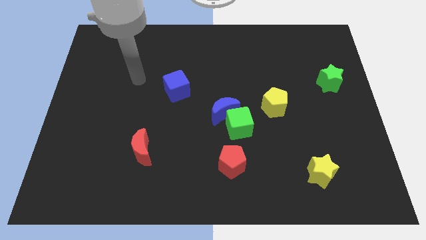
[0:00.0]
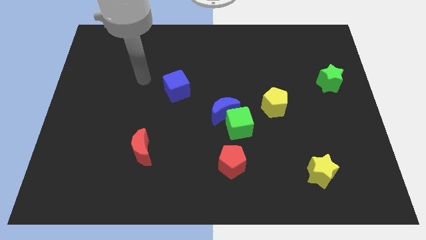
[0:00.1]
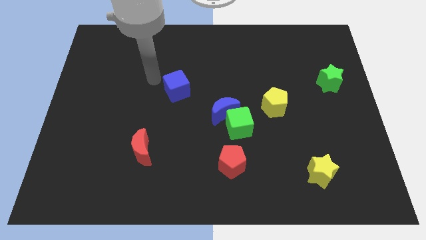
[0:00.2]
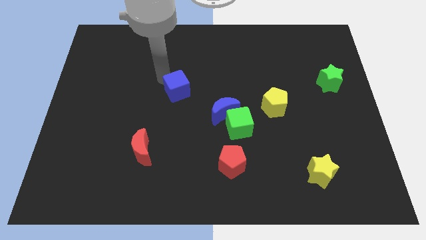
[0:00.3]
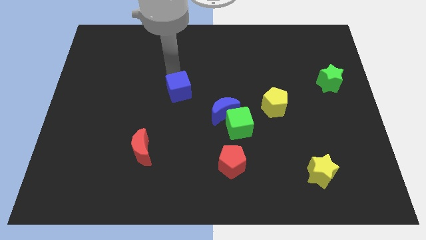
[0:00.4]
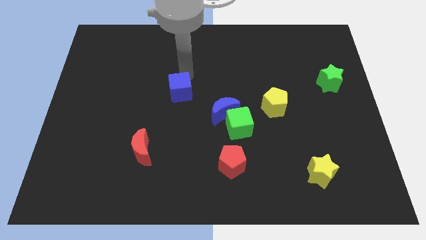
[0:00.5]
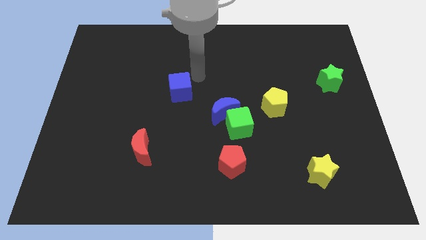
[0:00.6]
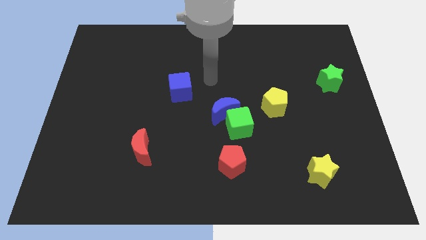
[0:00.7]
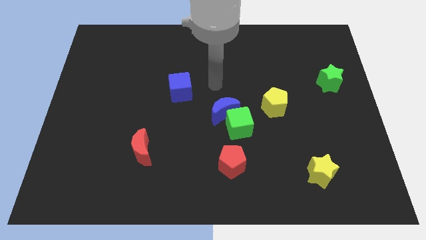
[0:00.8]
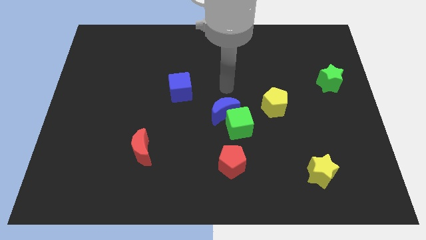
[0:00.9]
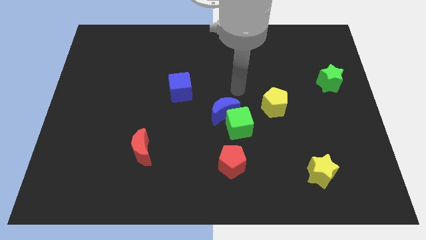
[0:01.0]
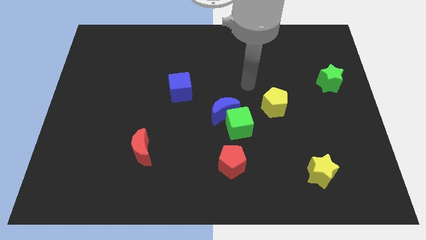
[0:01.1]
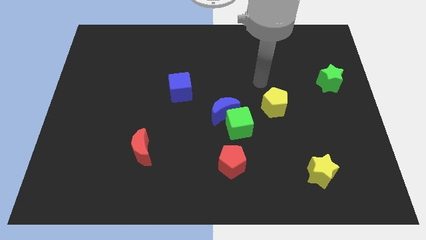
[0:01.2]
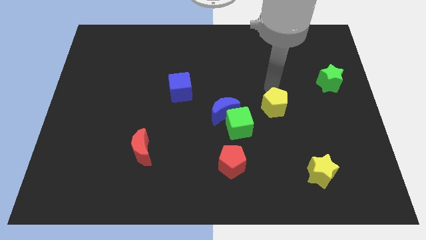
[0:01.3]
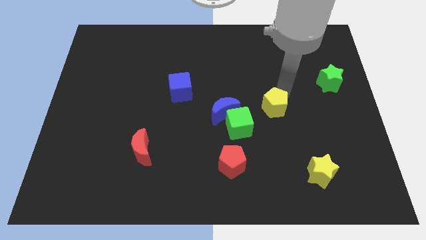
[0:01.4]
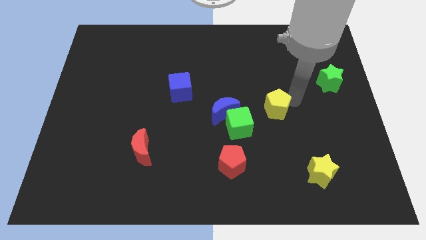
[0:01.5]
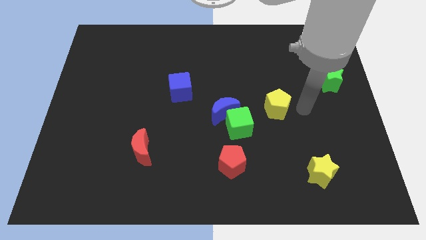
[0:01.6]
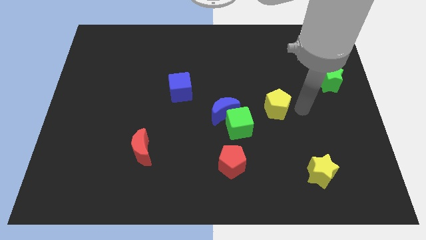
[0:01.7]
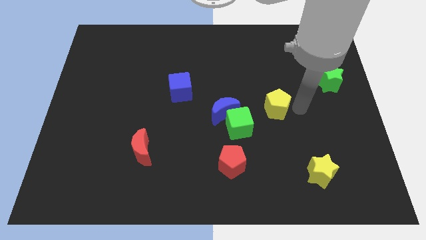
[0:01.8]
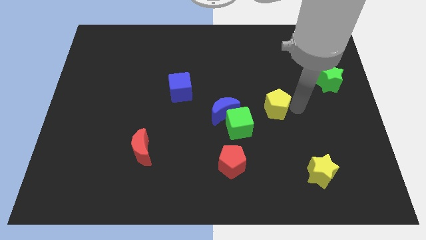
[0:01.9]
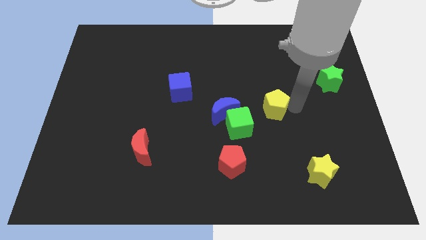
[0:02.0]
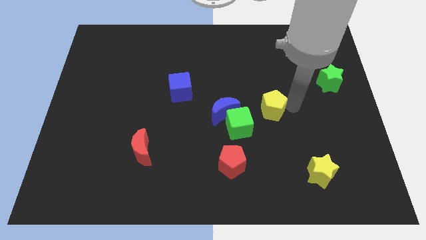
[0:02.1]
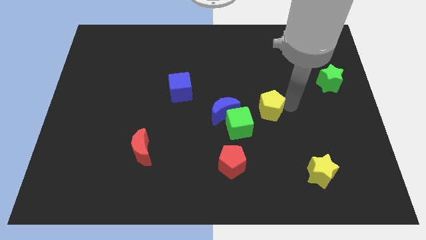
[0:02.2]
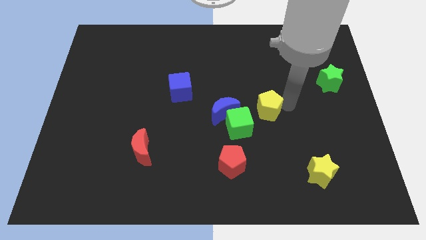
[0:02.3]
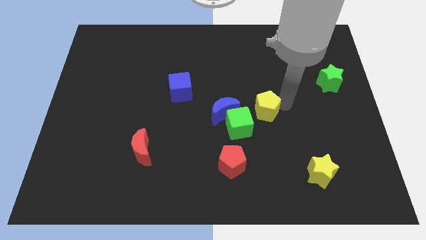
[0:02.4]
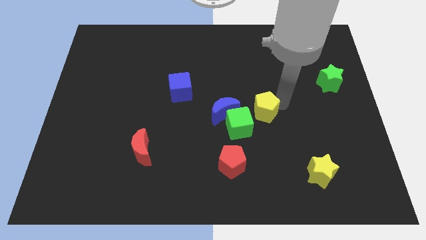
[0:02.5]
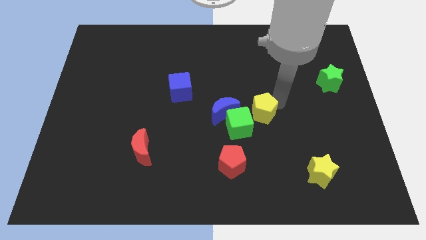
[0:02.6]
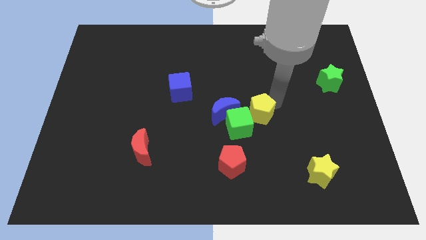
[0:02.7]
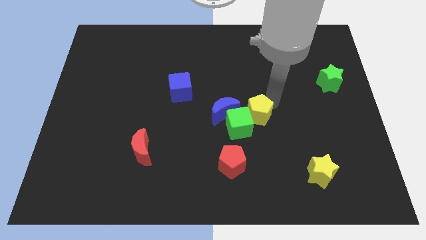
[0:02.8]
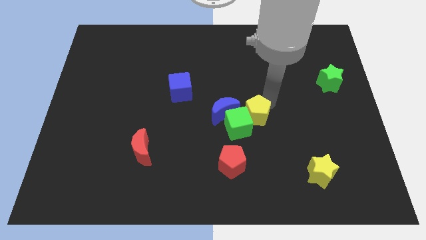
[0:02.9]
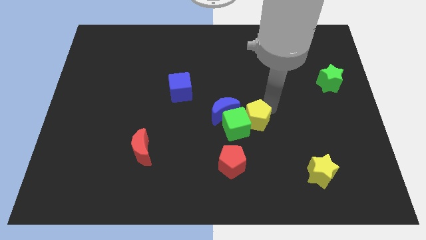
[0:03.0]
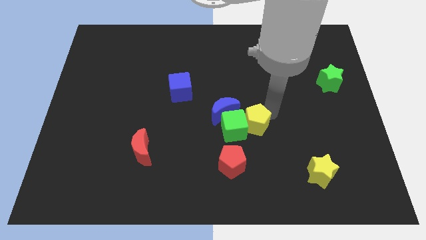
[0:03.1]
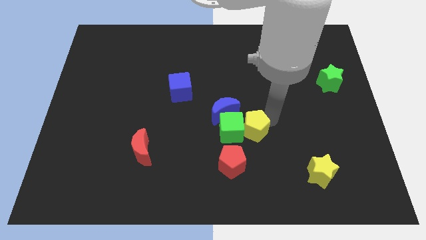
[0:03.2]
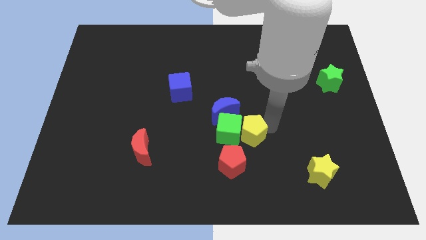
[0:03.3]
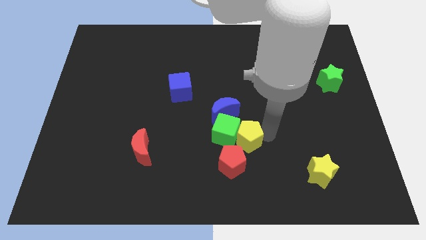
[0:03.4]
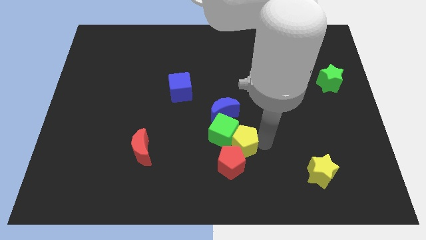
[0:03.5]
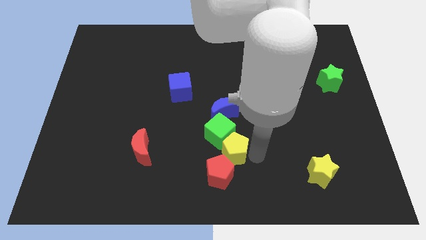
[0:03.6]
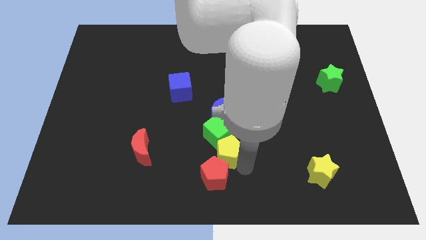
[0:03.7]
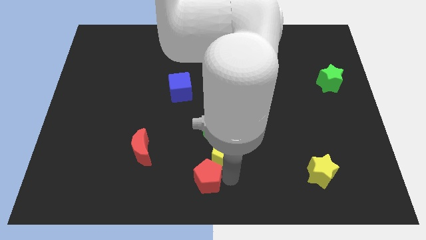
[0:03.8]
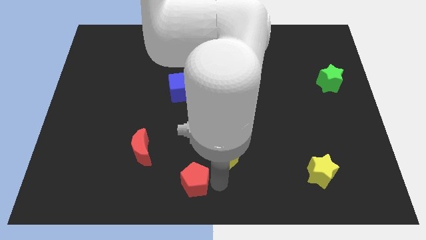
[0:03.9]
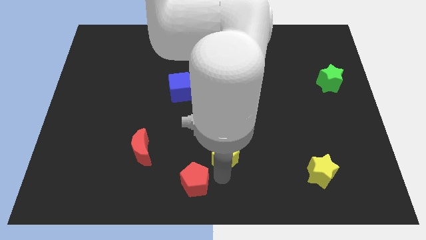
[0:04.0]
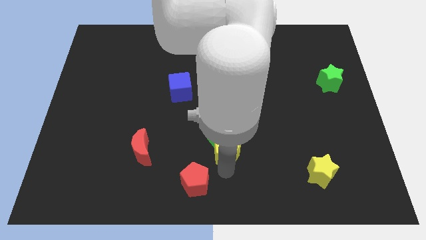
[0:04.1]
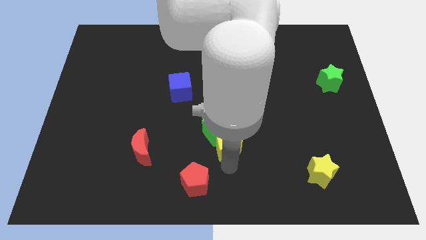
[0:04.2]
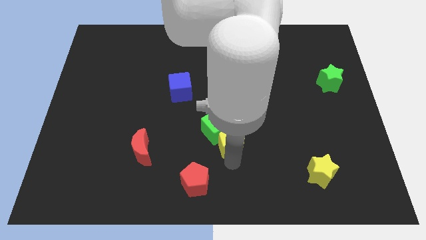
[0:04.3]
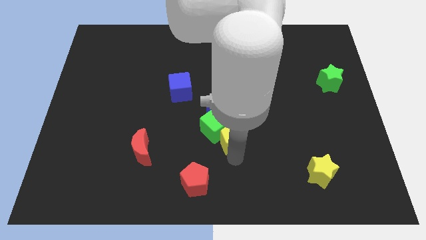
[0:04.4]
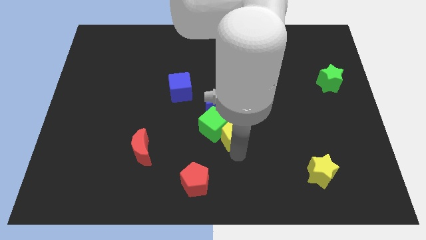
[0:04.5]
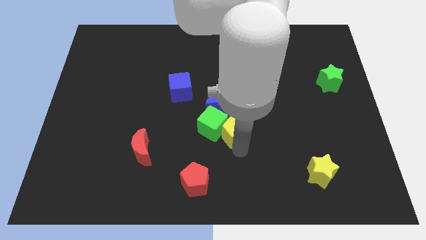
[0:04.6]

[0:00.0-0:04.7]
slightly push the yellow pentagon left

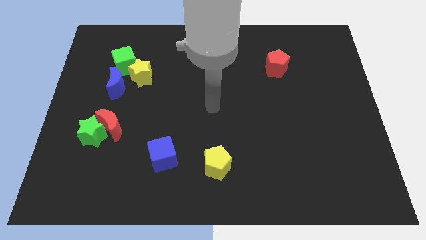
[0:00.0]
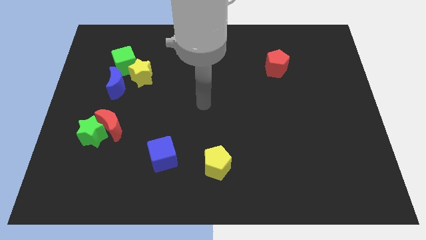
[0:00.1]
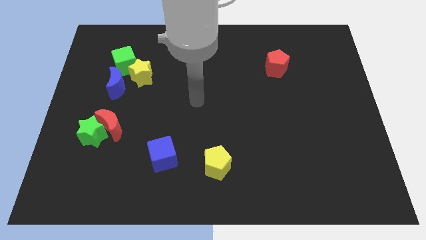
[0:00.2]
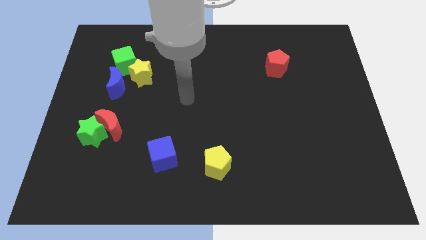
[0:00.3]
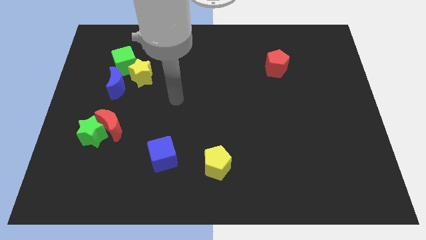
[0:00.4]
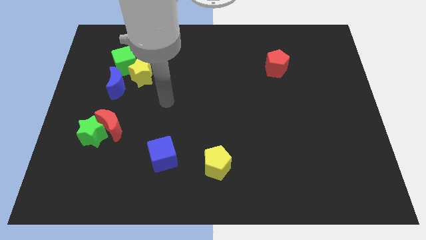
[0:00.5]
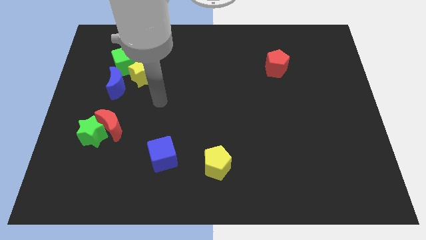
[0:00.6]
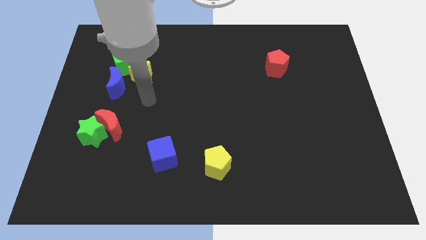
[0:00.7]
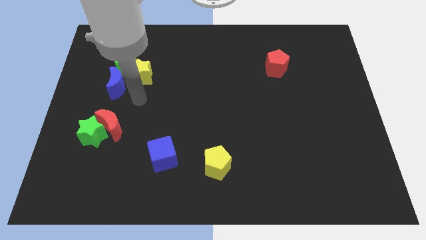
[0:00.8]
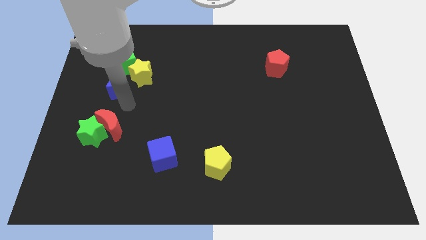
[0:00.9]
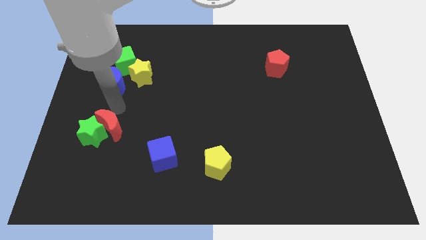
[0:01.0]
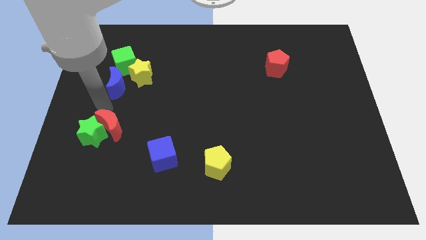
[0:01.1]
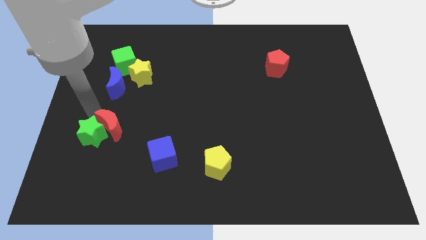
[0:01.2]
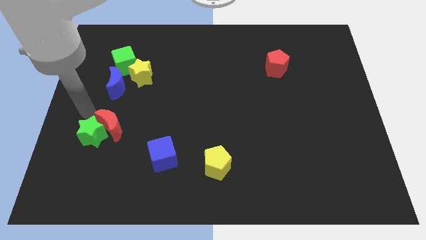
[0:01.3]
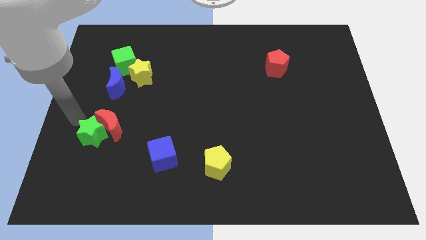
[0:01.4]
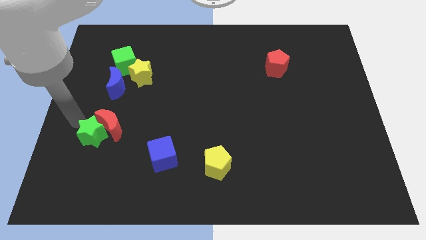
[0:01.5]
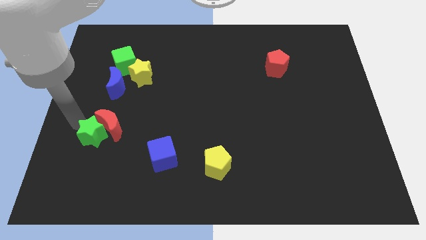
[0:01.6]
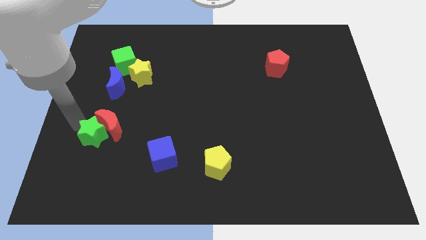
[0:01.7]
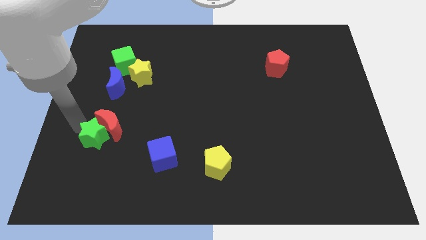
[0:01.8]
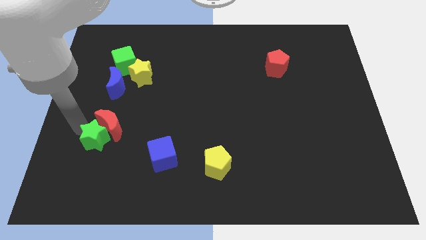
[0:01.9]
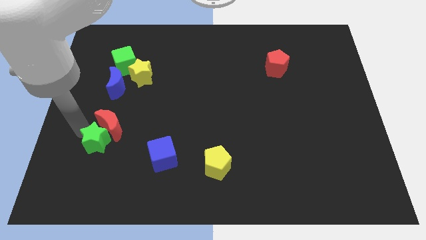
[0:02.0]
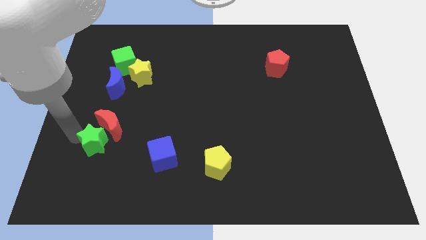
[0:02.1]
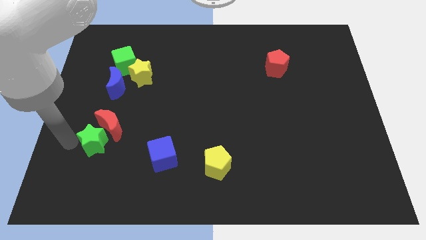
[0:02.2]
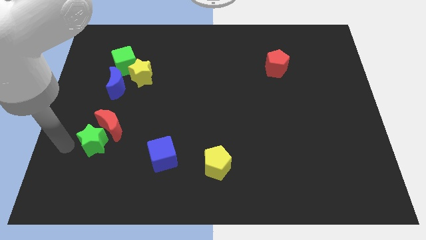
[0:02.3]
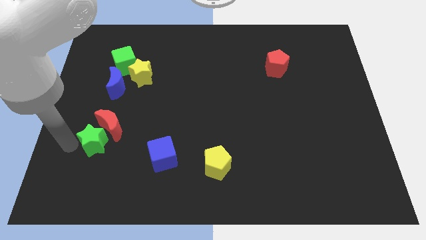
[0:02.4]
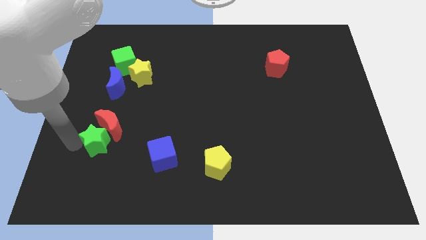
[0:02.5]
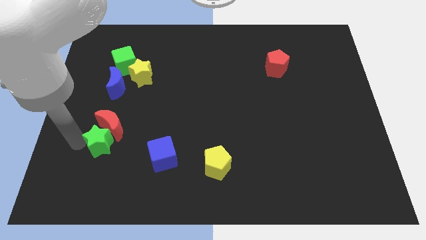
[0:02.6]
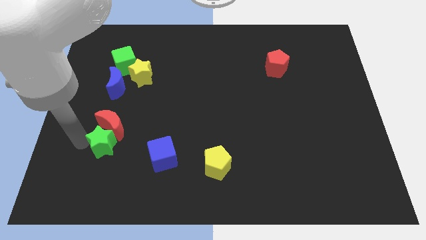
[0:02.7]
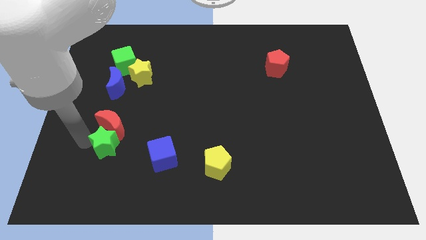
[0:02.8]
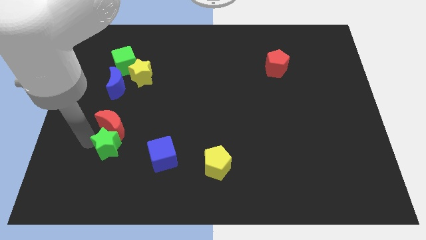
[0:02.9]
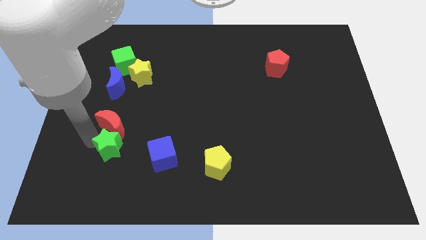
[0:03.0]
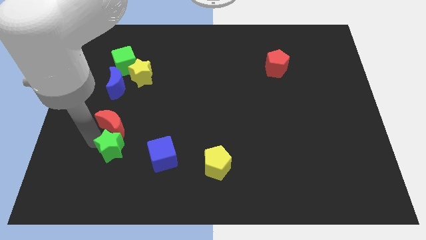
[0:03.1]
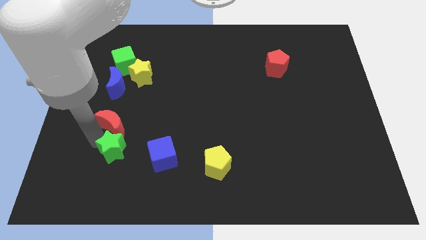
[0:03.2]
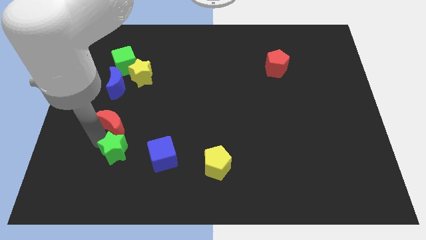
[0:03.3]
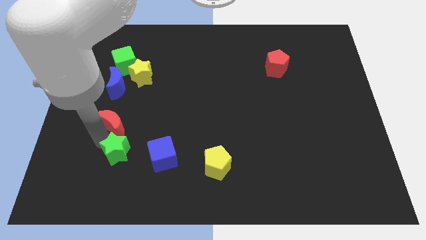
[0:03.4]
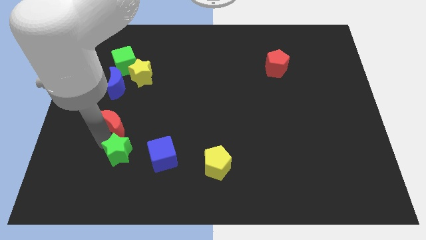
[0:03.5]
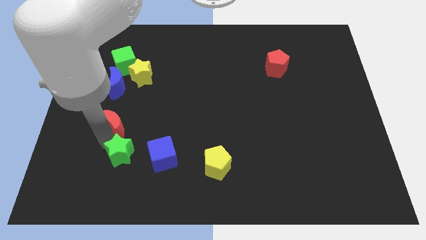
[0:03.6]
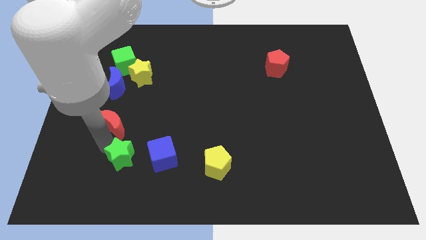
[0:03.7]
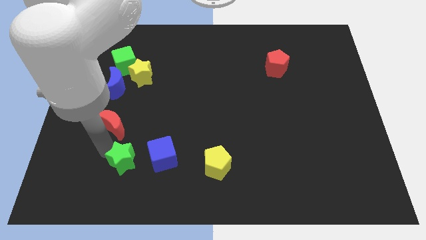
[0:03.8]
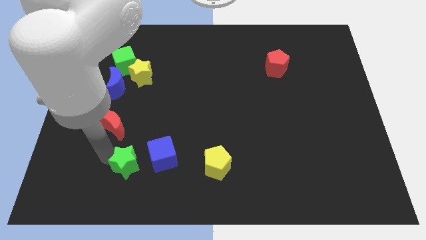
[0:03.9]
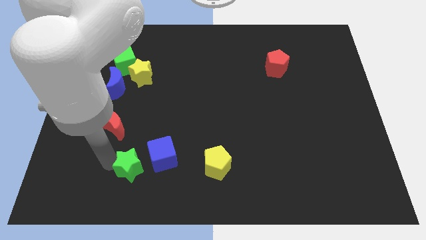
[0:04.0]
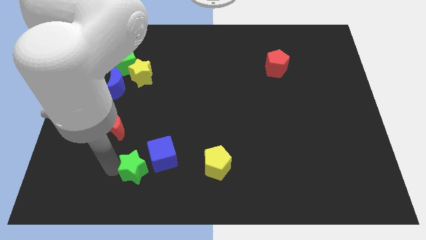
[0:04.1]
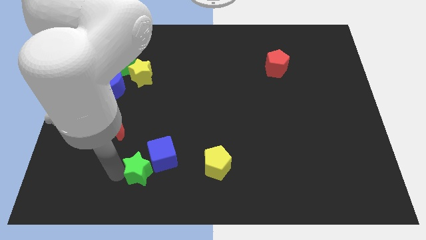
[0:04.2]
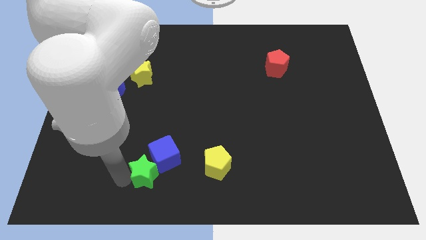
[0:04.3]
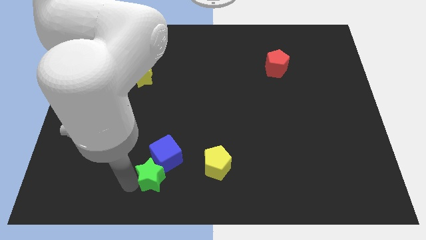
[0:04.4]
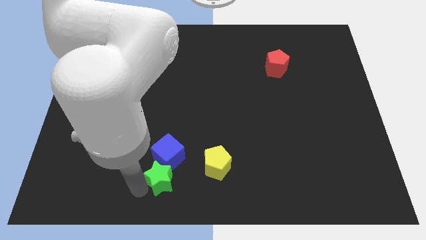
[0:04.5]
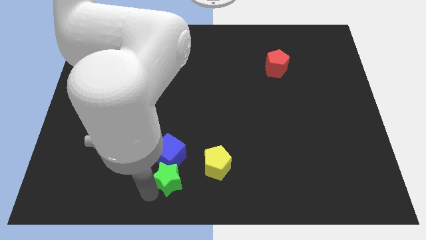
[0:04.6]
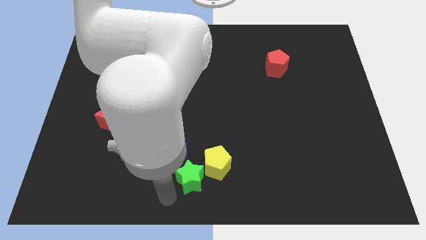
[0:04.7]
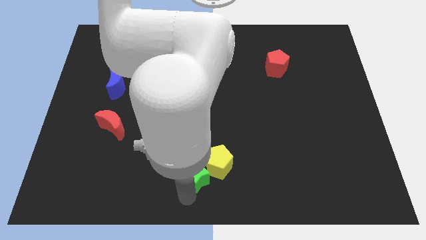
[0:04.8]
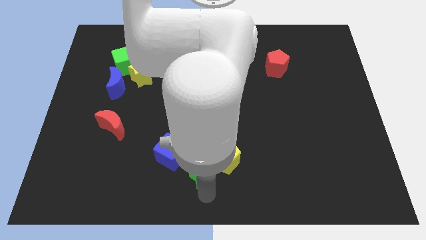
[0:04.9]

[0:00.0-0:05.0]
push the green star to the right
